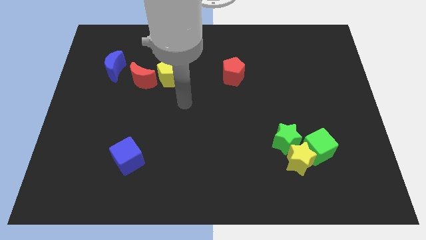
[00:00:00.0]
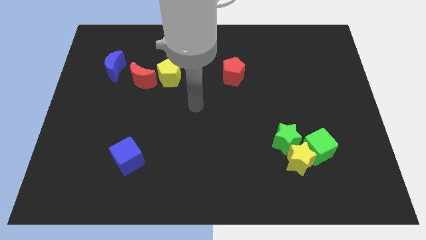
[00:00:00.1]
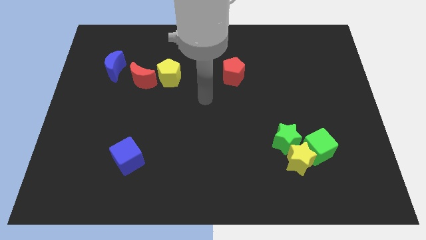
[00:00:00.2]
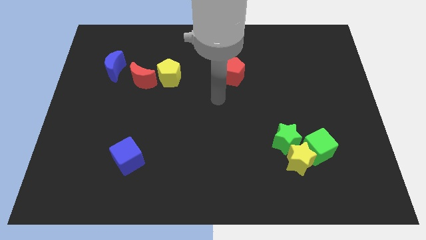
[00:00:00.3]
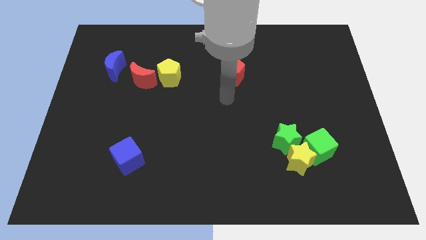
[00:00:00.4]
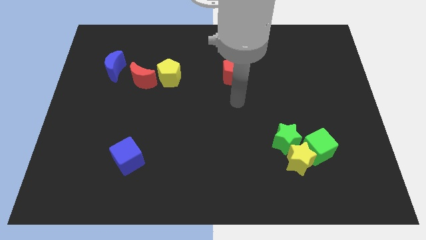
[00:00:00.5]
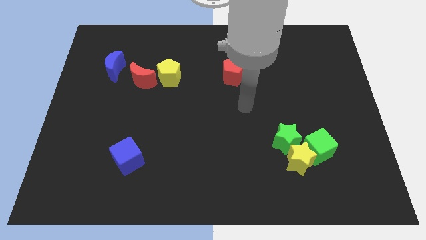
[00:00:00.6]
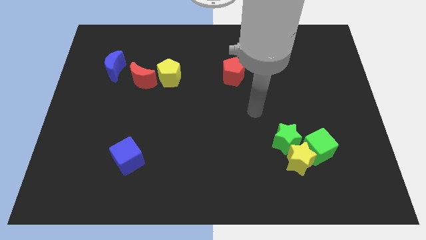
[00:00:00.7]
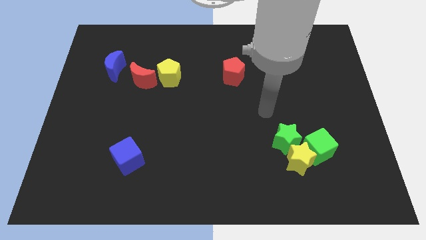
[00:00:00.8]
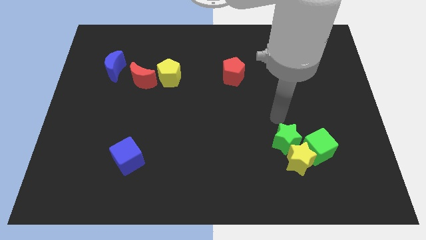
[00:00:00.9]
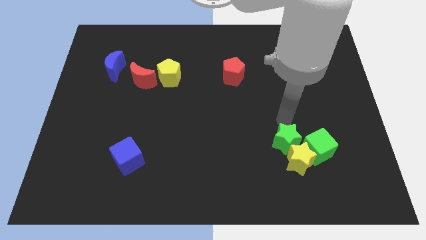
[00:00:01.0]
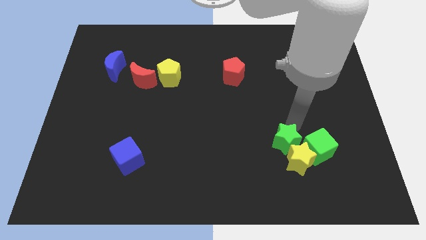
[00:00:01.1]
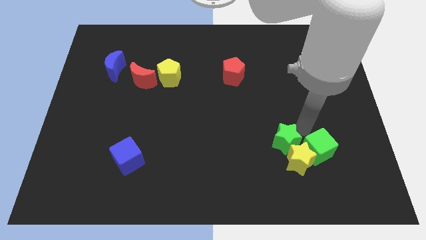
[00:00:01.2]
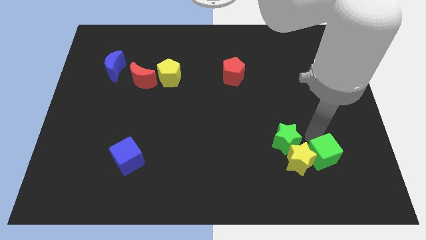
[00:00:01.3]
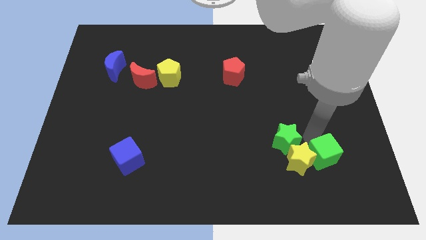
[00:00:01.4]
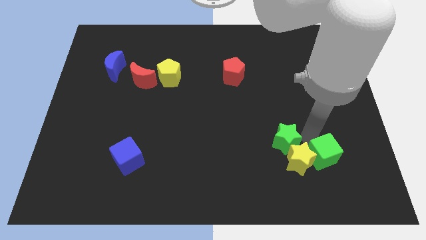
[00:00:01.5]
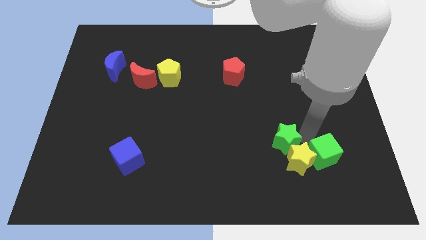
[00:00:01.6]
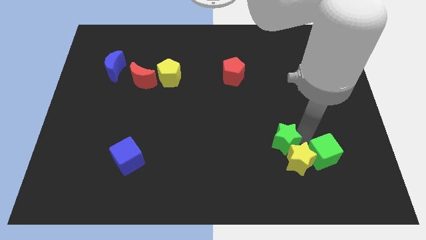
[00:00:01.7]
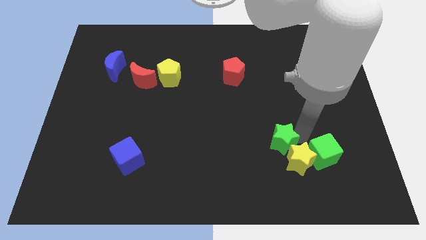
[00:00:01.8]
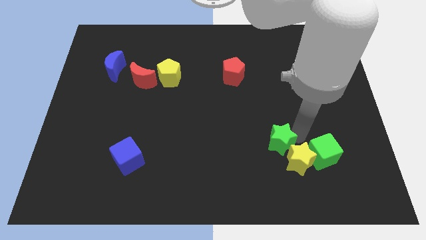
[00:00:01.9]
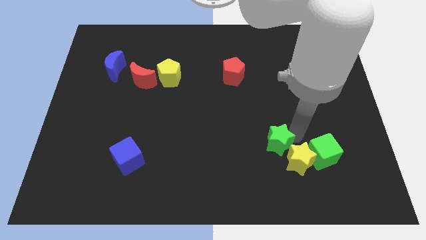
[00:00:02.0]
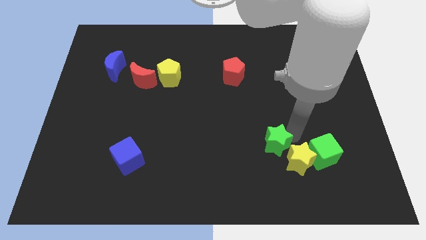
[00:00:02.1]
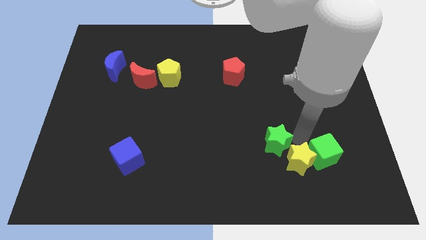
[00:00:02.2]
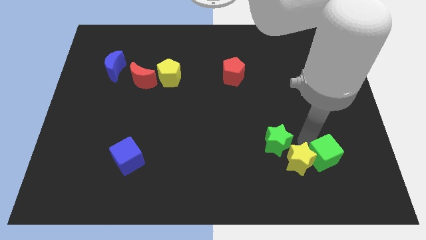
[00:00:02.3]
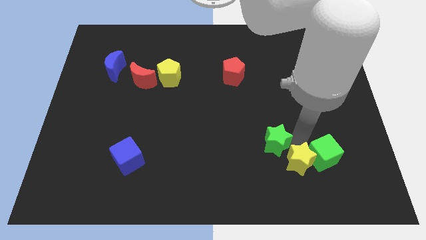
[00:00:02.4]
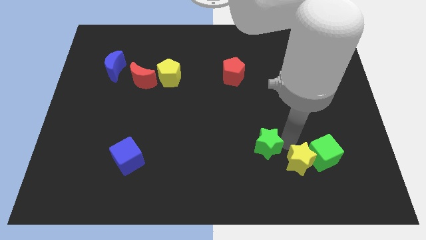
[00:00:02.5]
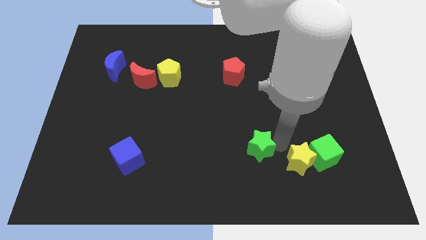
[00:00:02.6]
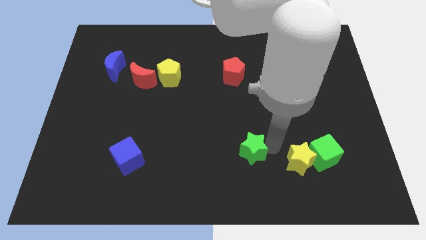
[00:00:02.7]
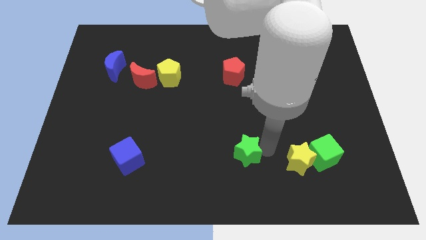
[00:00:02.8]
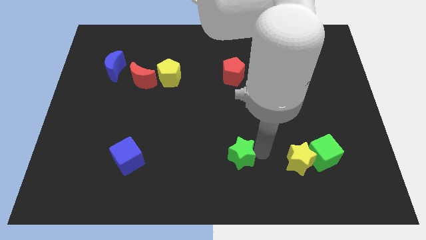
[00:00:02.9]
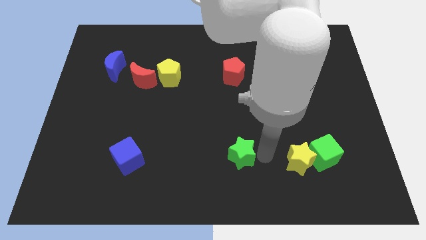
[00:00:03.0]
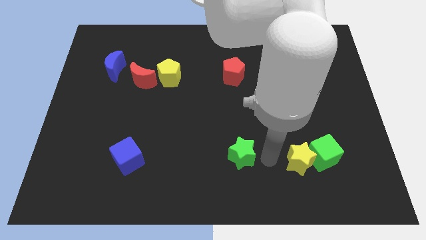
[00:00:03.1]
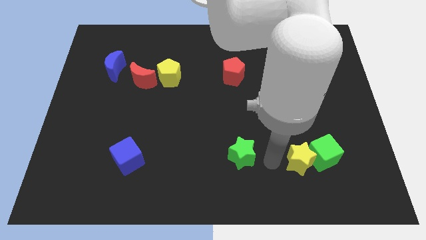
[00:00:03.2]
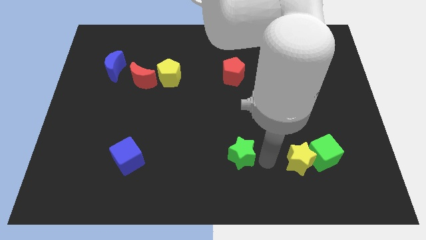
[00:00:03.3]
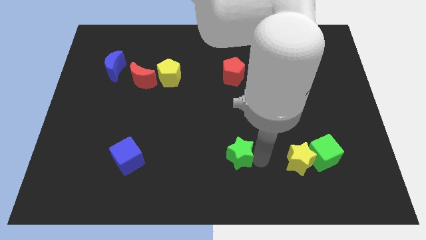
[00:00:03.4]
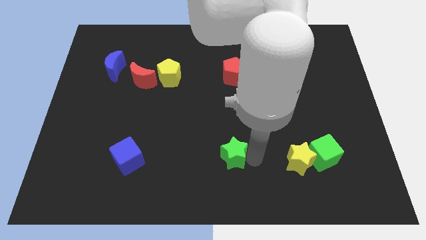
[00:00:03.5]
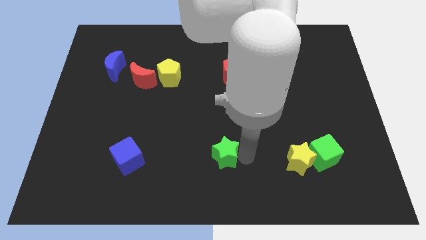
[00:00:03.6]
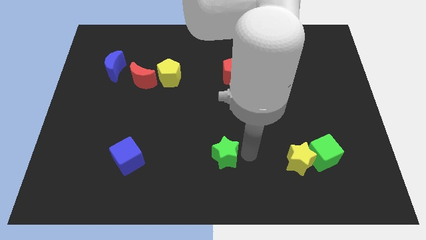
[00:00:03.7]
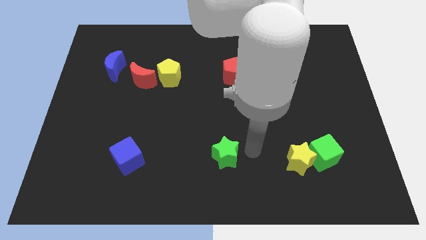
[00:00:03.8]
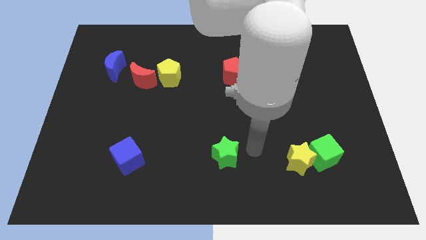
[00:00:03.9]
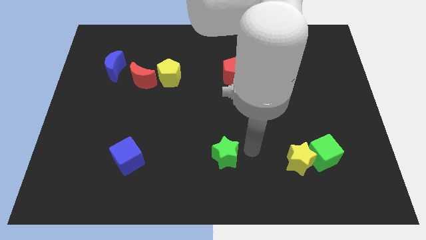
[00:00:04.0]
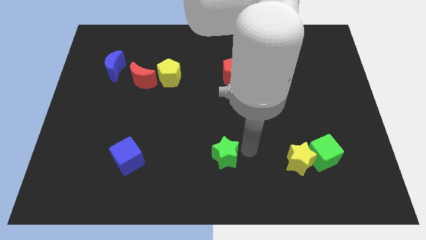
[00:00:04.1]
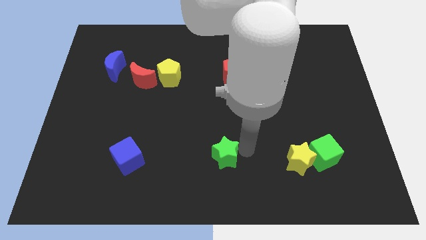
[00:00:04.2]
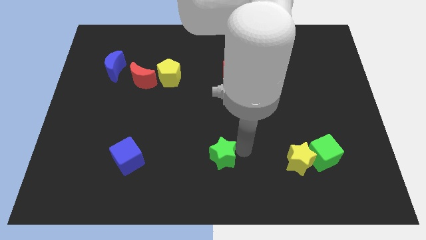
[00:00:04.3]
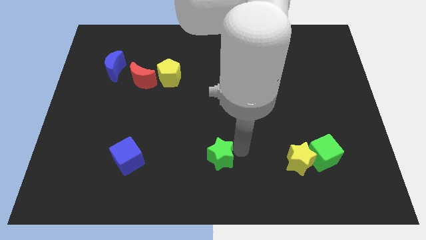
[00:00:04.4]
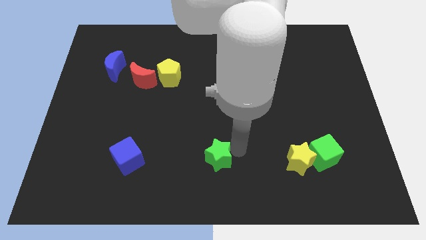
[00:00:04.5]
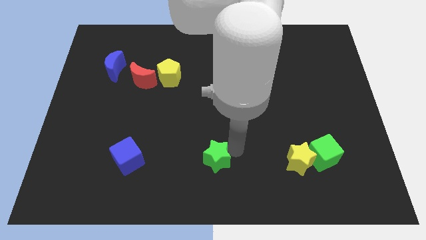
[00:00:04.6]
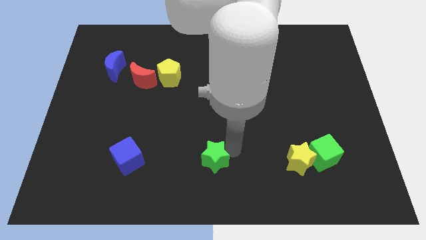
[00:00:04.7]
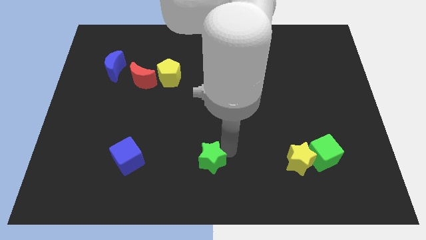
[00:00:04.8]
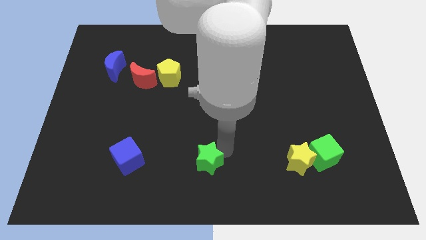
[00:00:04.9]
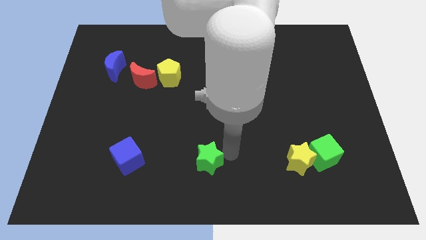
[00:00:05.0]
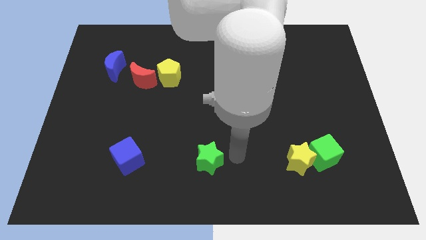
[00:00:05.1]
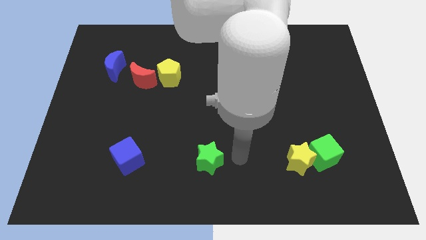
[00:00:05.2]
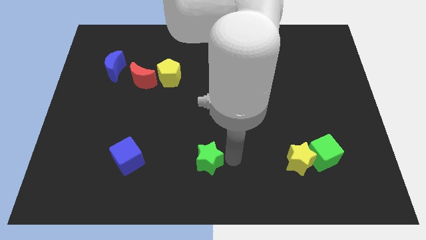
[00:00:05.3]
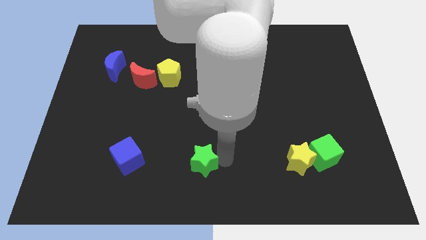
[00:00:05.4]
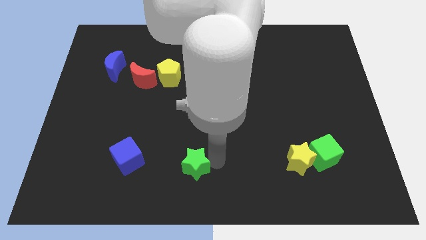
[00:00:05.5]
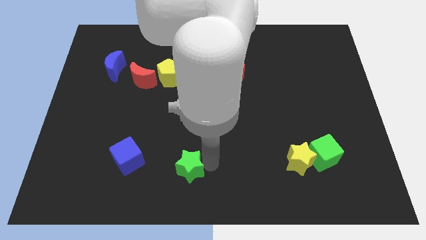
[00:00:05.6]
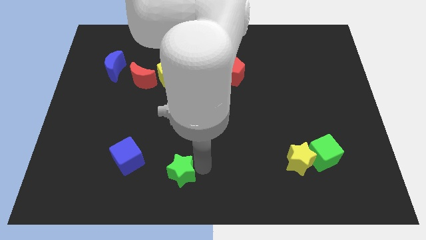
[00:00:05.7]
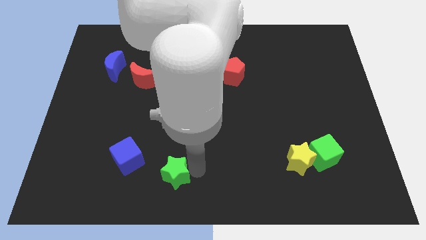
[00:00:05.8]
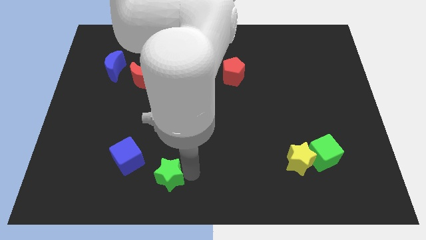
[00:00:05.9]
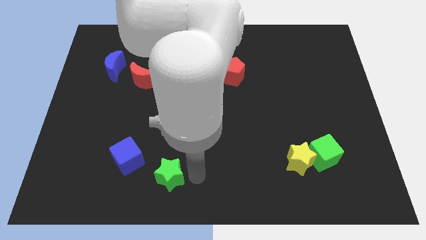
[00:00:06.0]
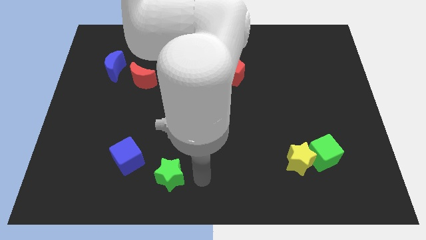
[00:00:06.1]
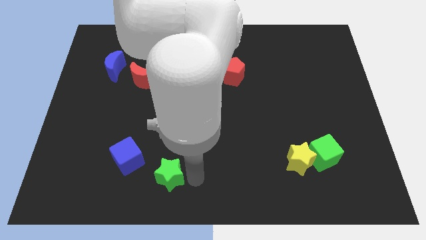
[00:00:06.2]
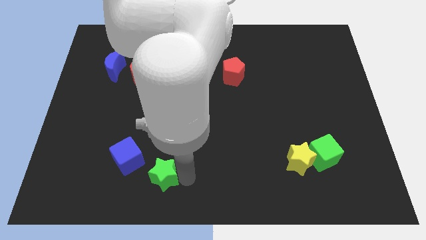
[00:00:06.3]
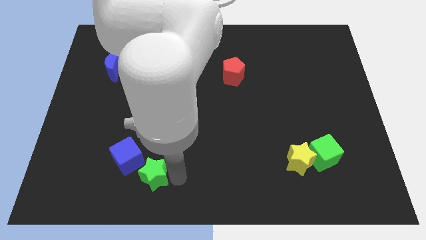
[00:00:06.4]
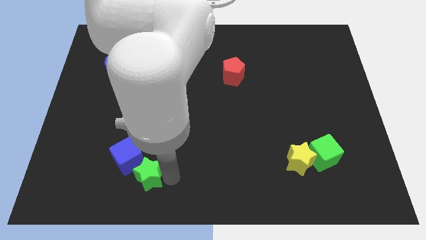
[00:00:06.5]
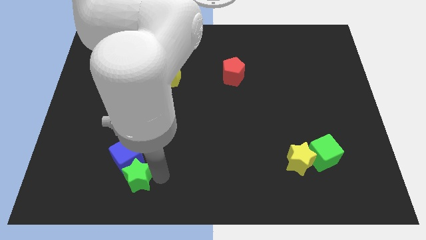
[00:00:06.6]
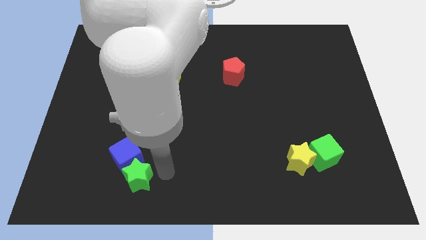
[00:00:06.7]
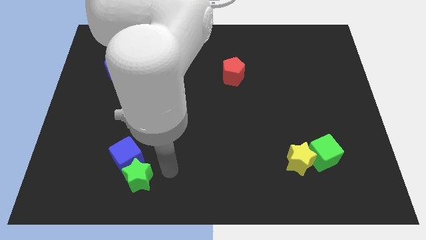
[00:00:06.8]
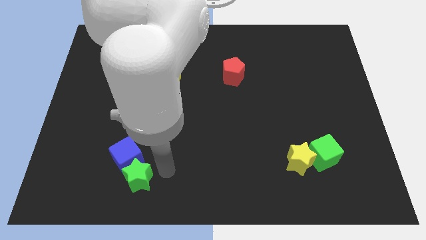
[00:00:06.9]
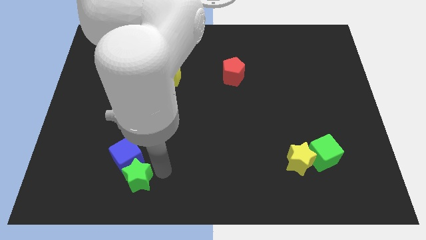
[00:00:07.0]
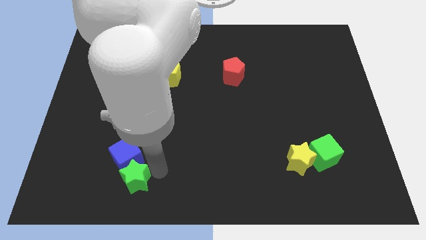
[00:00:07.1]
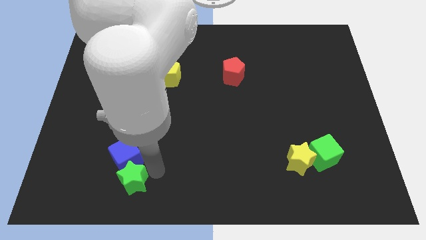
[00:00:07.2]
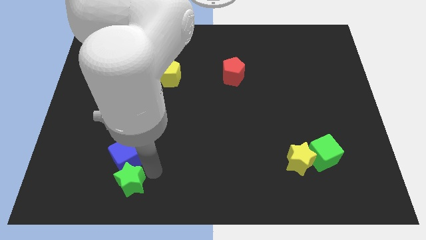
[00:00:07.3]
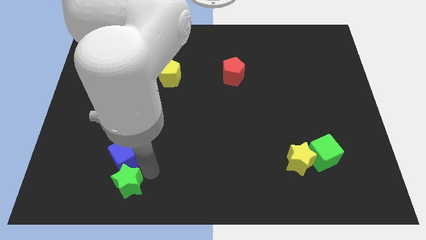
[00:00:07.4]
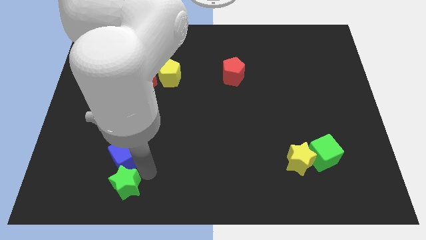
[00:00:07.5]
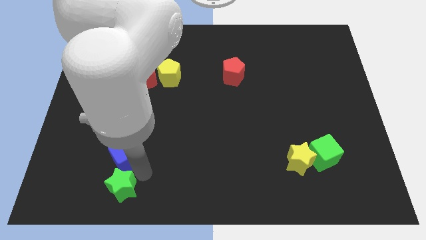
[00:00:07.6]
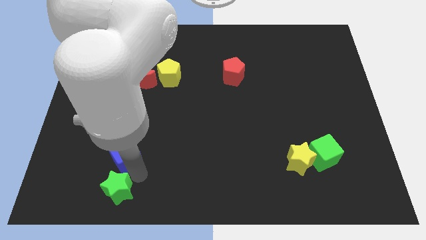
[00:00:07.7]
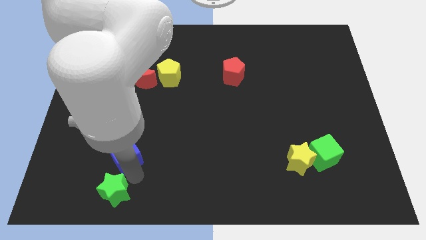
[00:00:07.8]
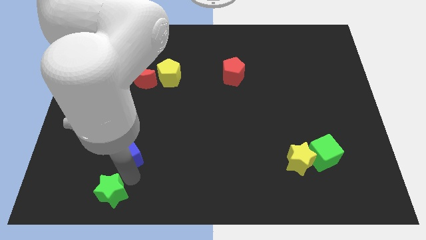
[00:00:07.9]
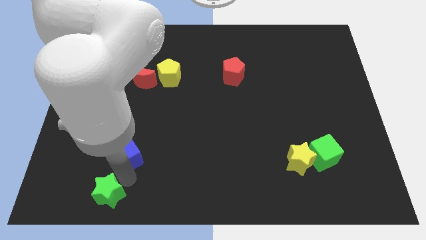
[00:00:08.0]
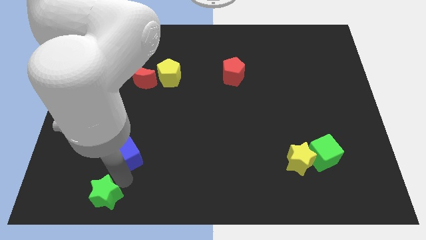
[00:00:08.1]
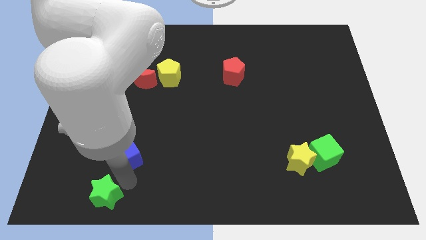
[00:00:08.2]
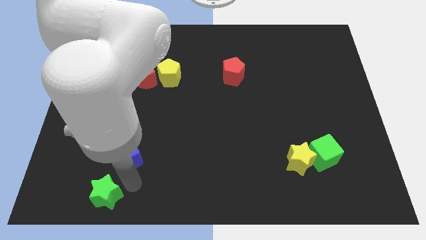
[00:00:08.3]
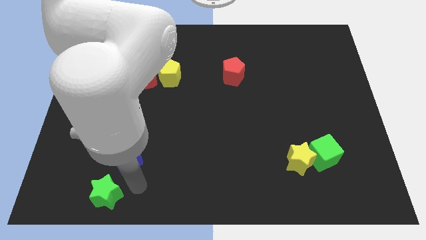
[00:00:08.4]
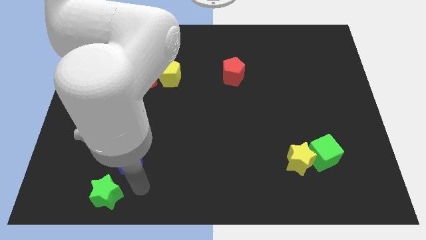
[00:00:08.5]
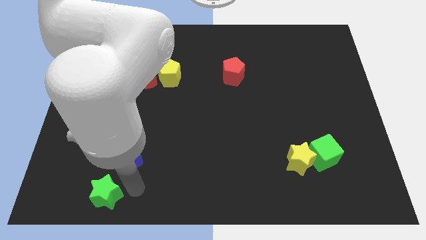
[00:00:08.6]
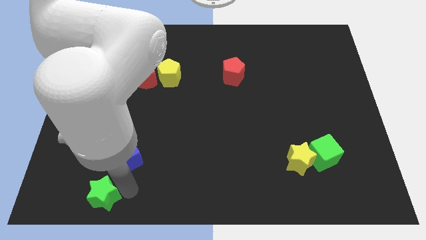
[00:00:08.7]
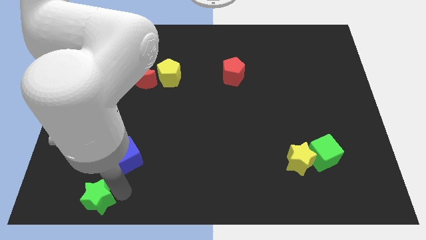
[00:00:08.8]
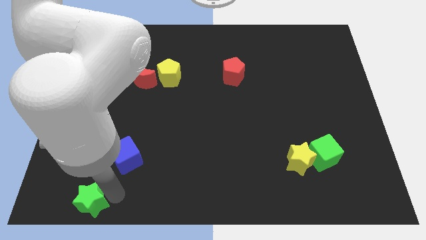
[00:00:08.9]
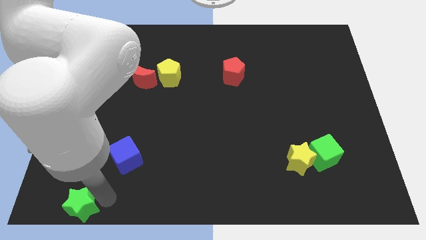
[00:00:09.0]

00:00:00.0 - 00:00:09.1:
put the green star to the bottom left
